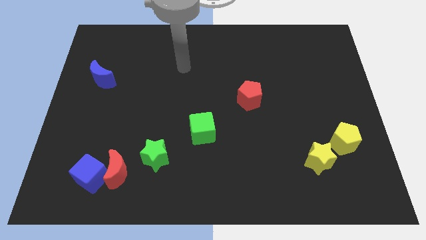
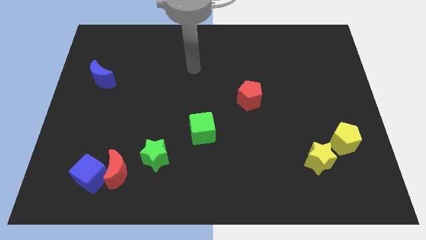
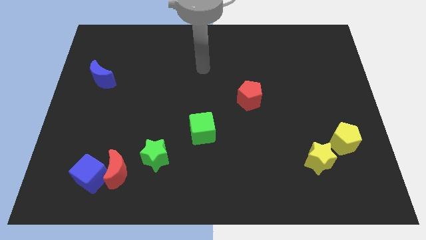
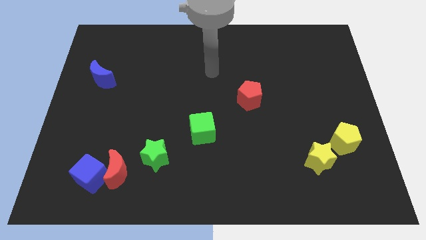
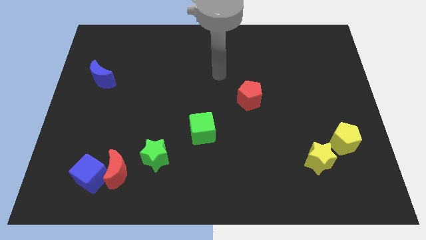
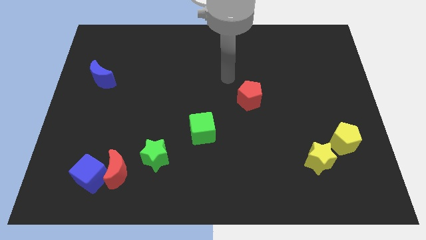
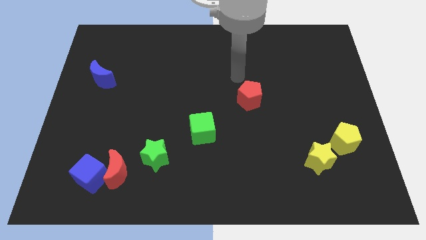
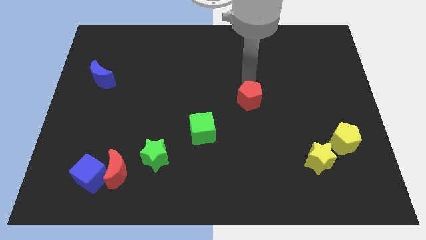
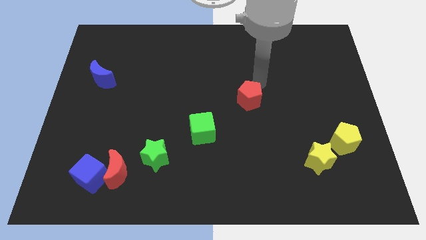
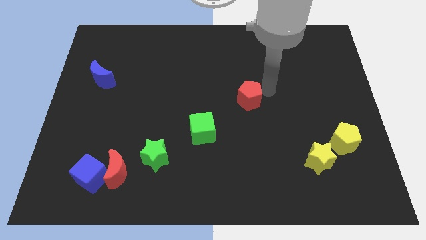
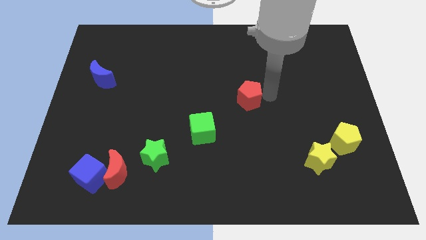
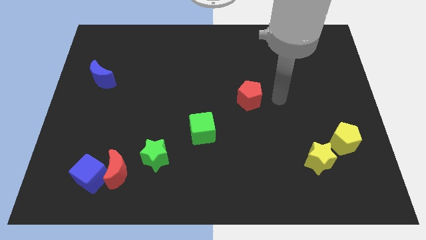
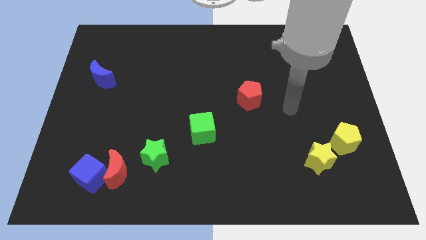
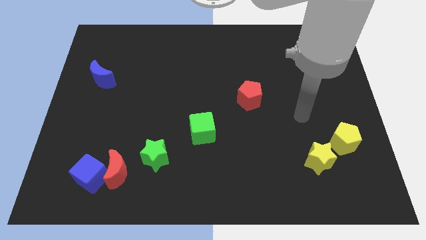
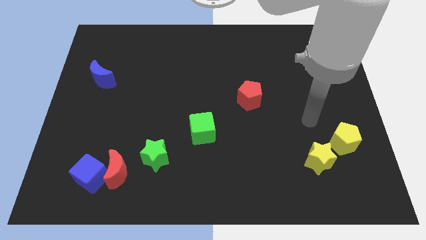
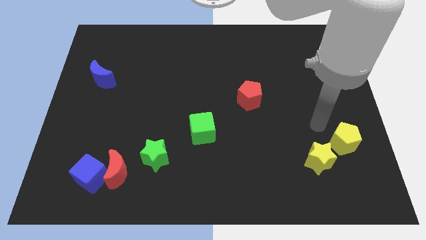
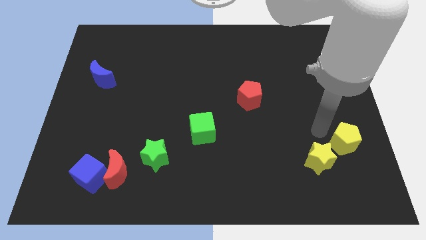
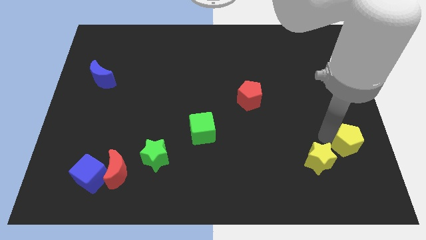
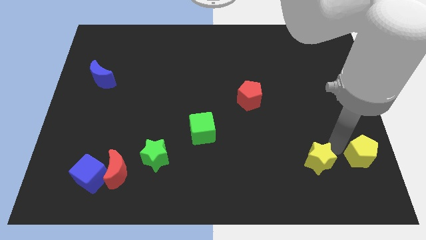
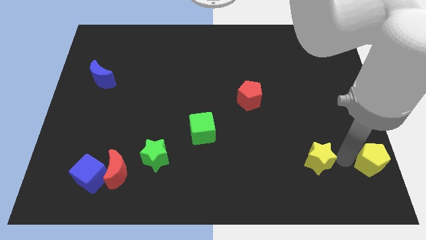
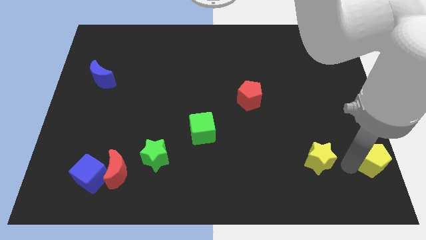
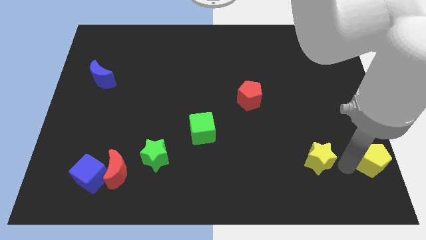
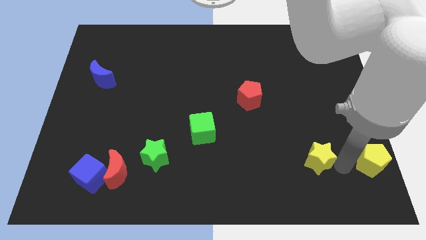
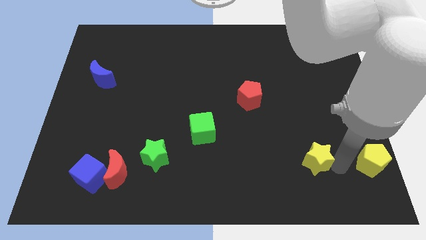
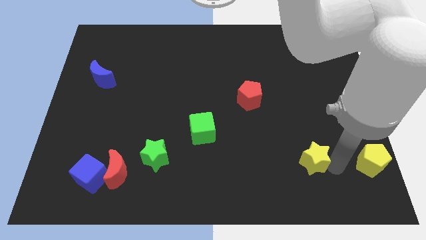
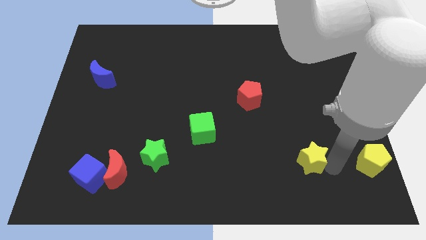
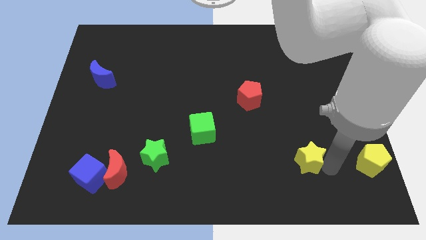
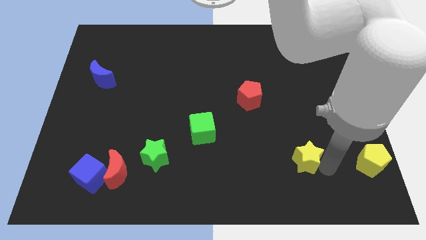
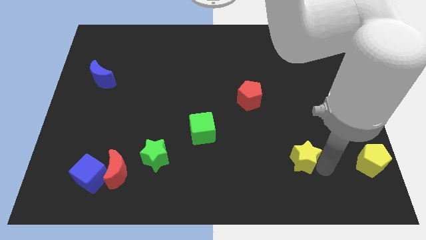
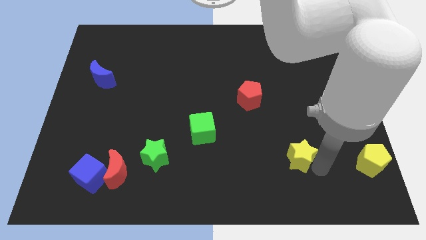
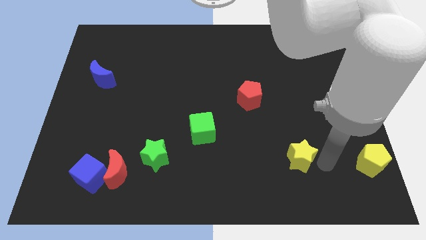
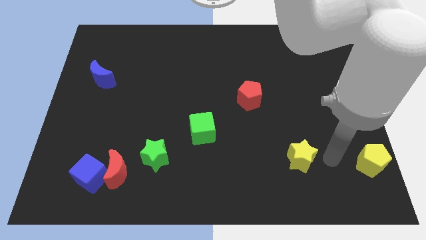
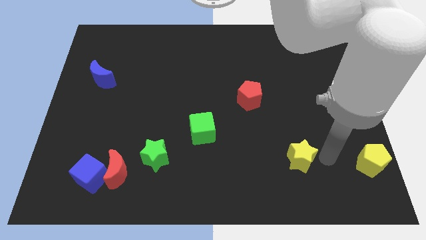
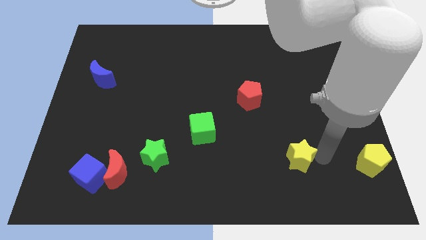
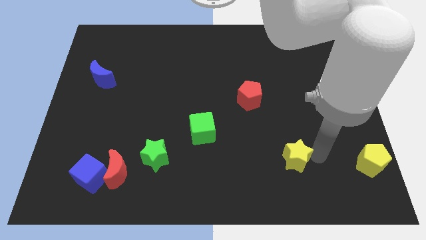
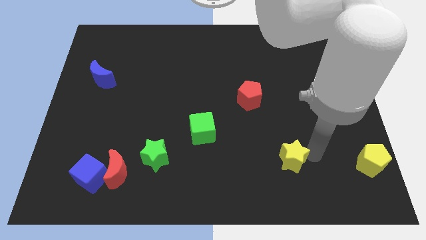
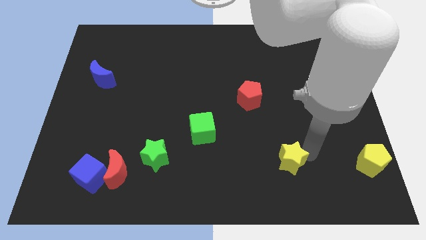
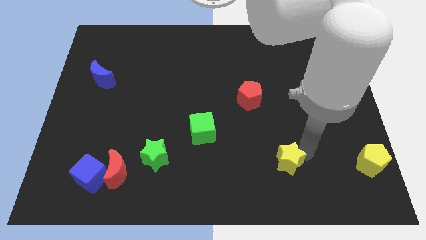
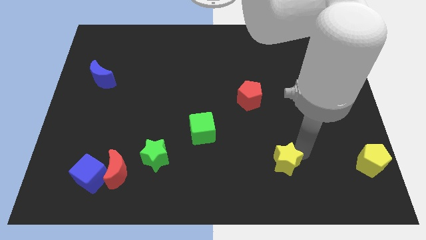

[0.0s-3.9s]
push the yellow star left a bit

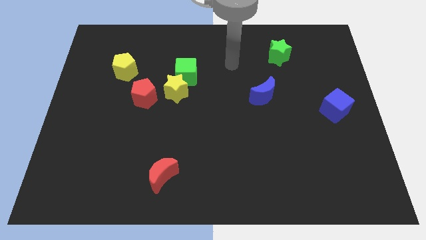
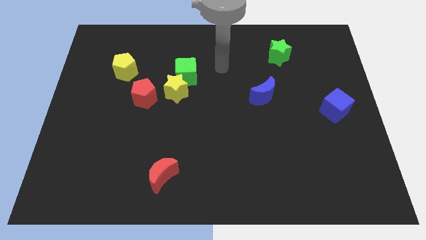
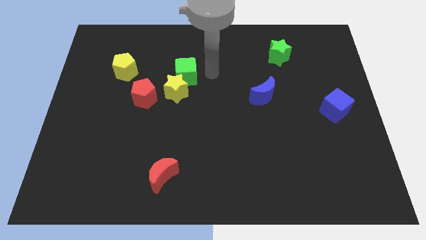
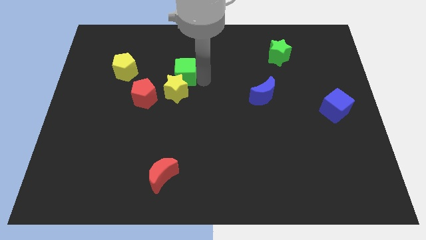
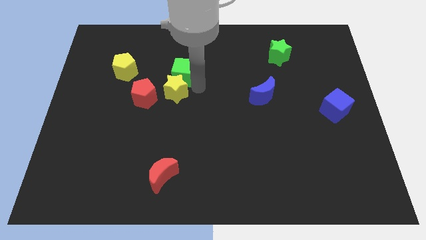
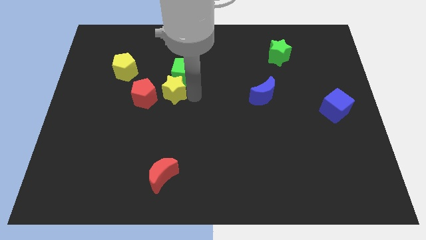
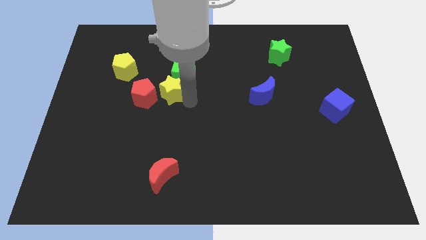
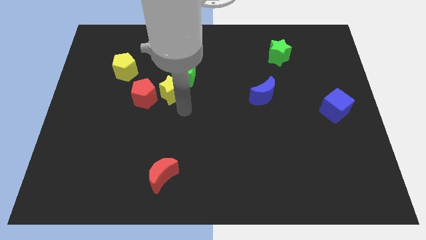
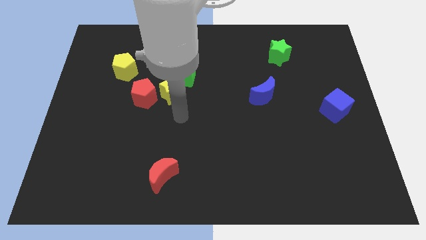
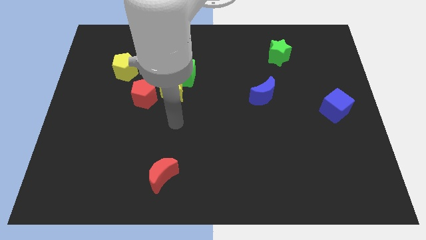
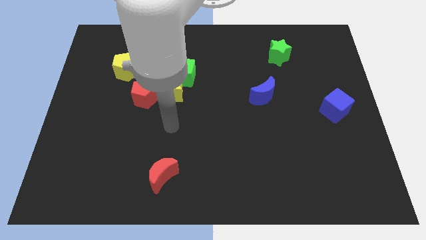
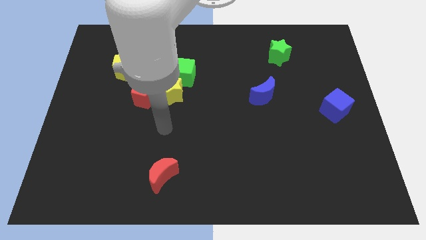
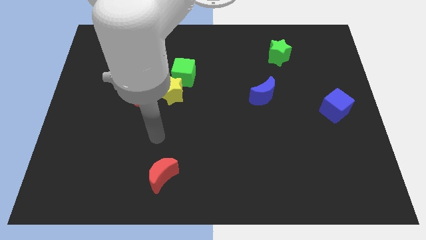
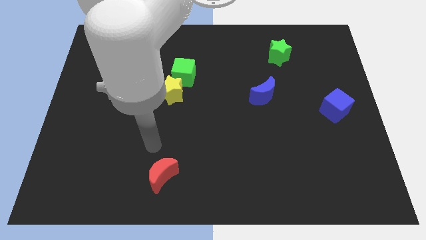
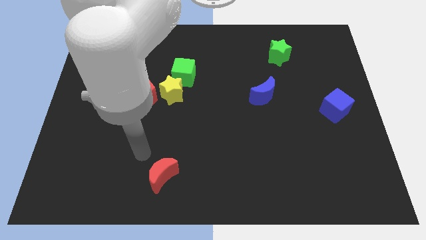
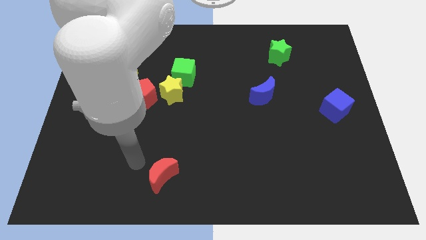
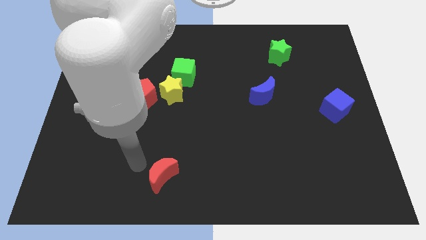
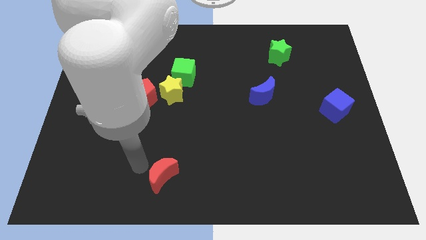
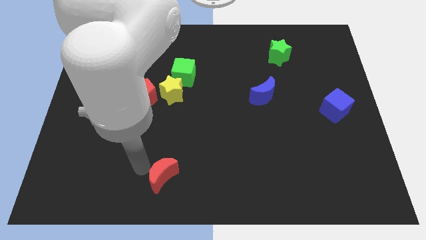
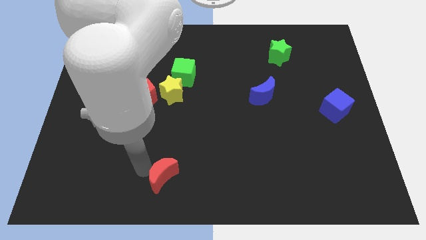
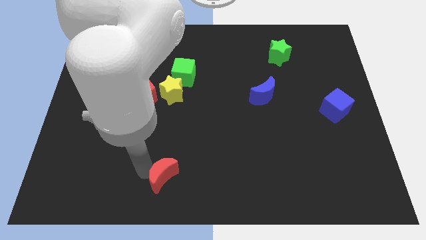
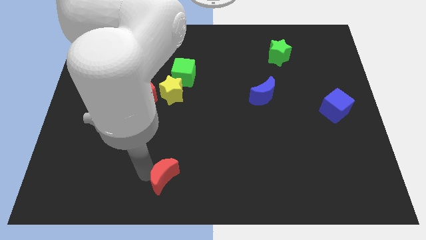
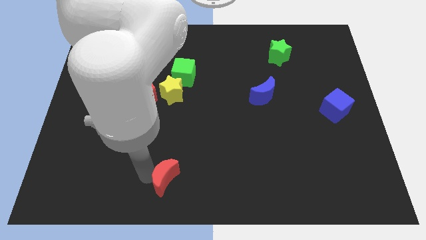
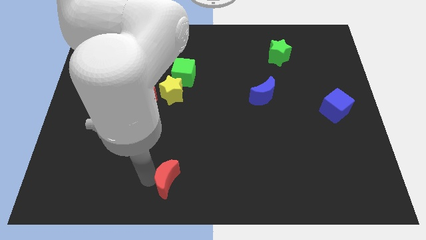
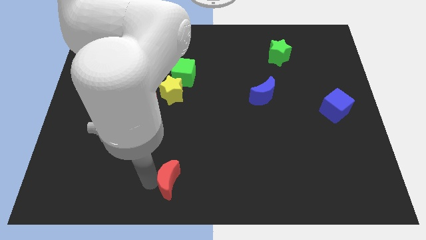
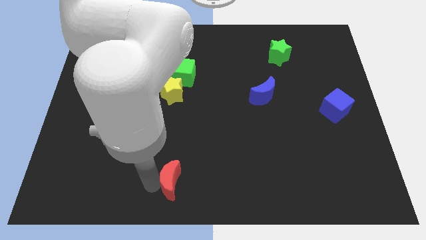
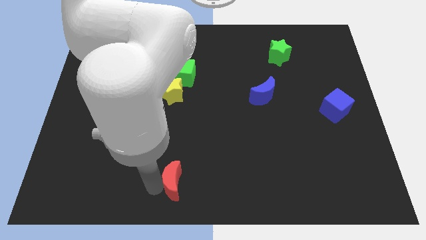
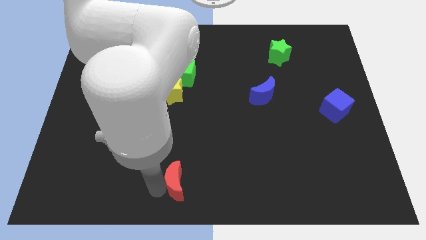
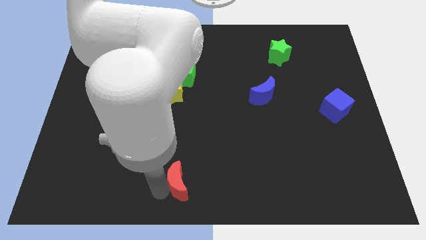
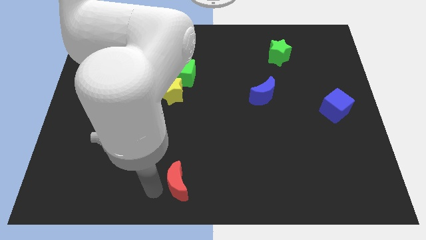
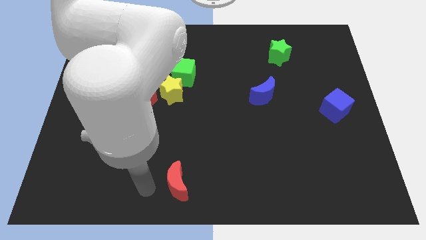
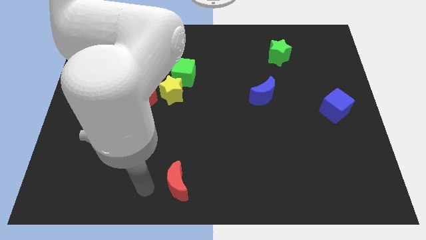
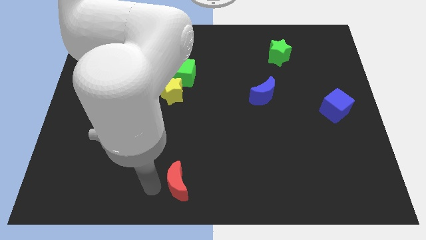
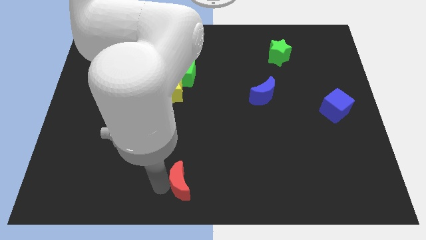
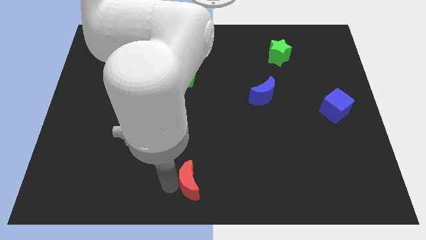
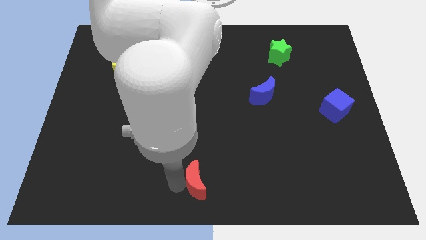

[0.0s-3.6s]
slide the red moon a little to the right

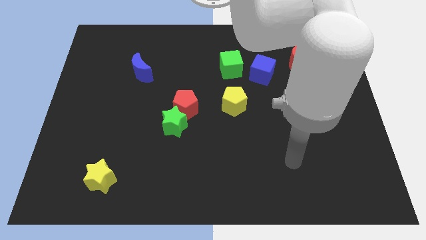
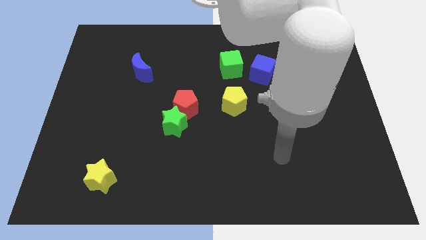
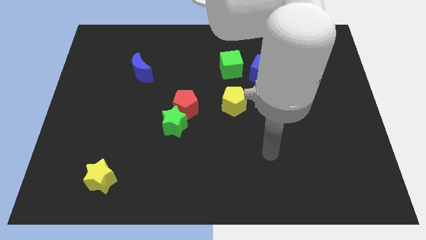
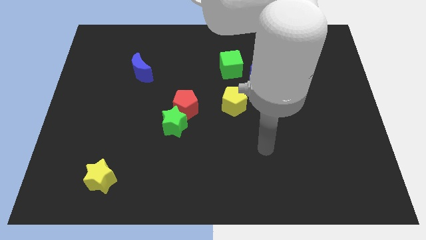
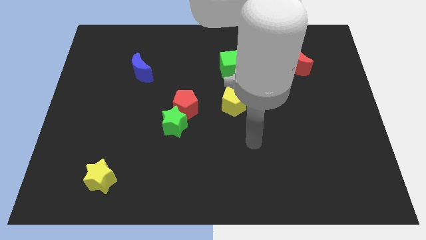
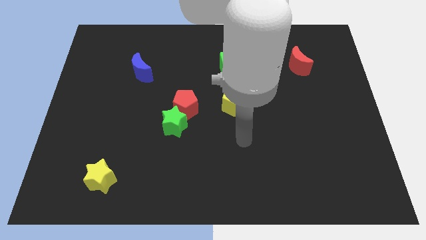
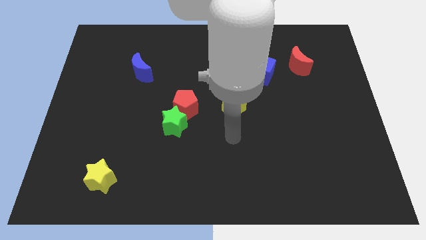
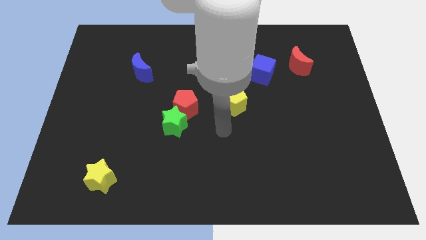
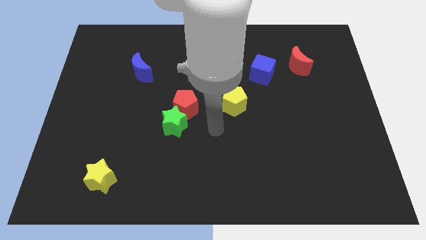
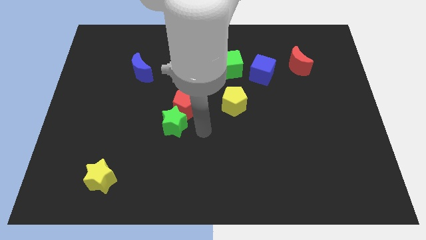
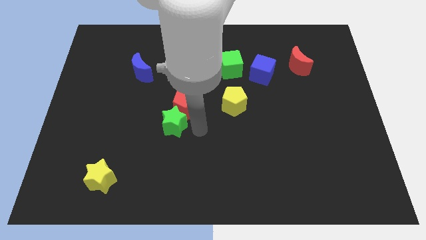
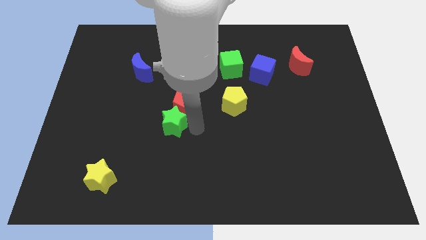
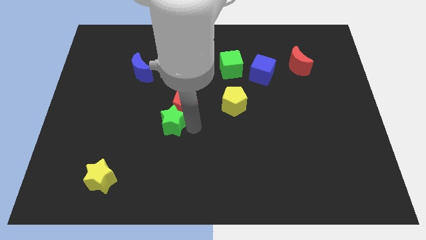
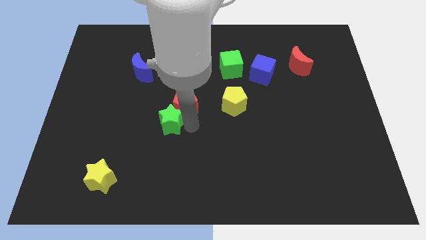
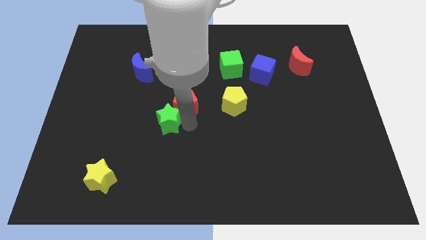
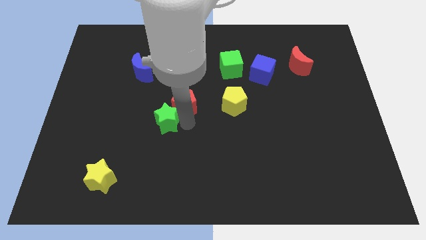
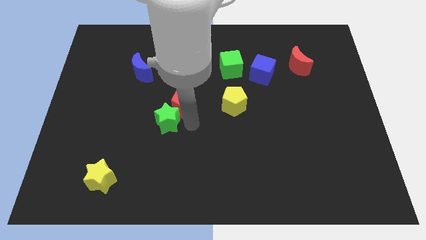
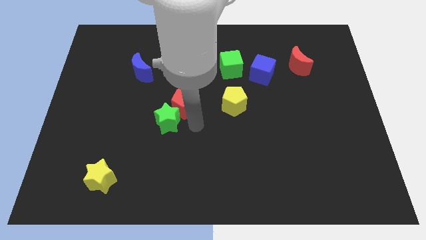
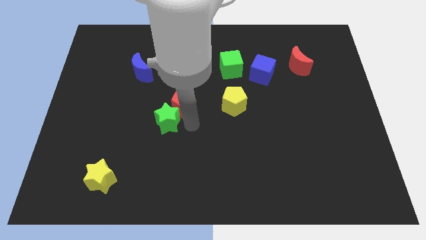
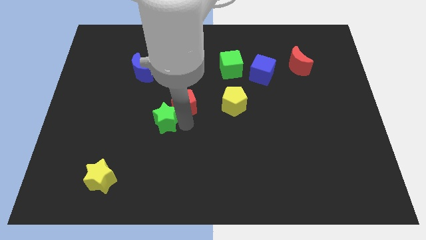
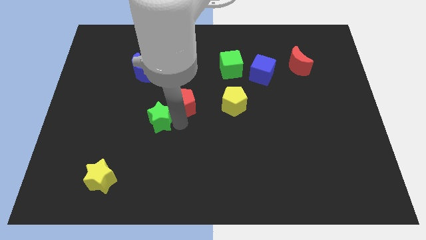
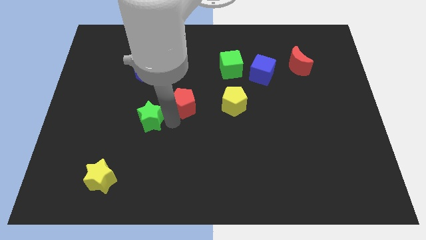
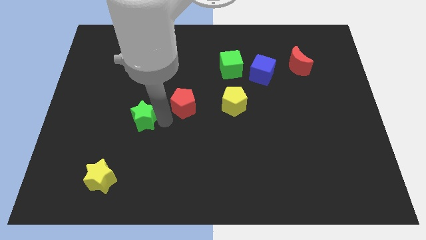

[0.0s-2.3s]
slightly push the green star left
